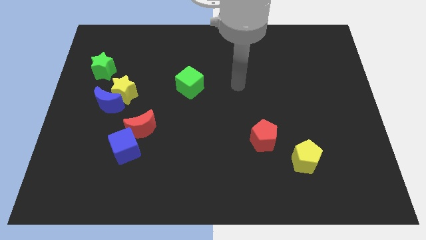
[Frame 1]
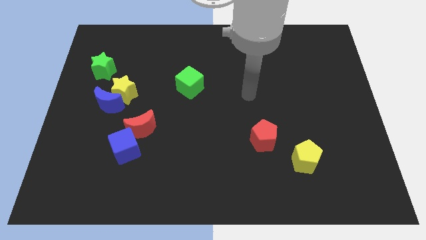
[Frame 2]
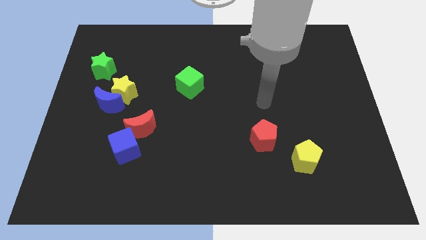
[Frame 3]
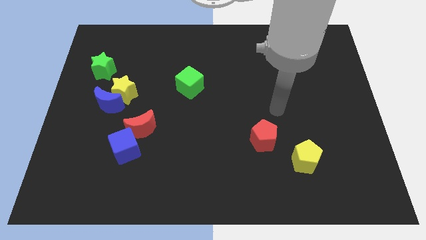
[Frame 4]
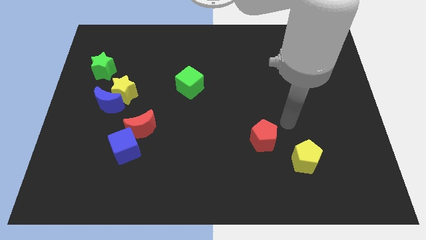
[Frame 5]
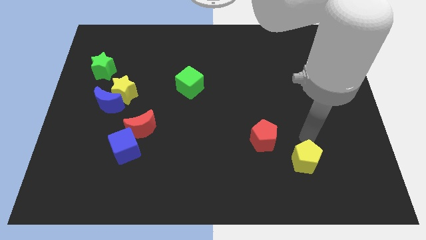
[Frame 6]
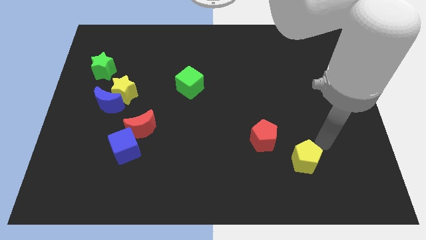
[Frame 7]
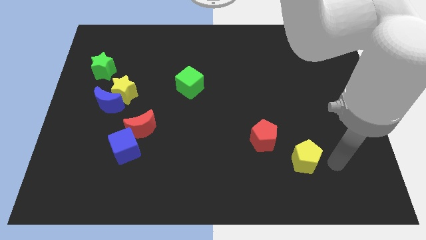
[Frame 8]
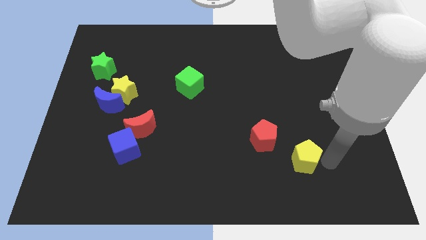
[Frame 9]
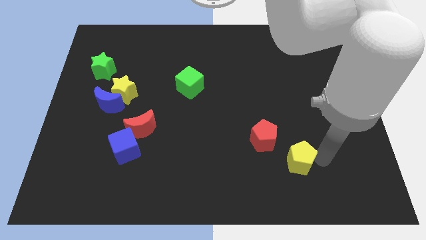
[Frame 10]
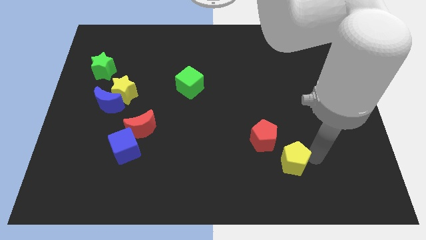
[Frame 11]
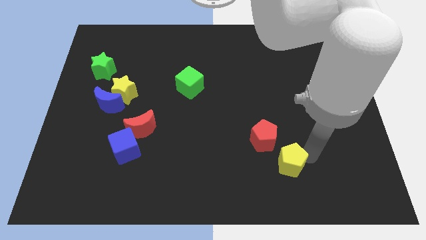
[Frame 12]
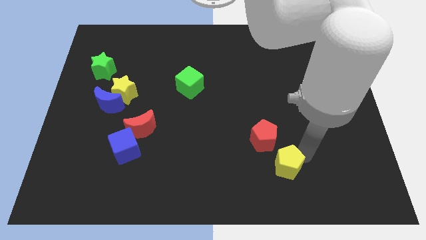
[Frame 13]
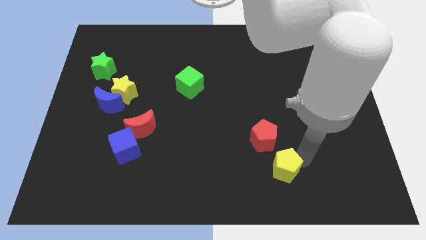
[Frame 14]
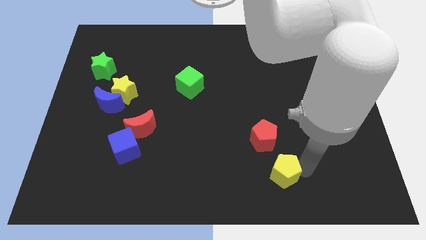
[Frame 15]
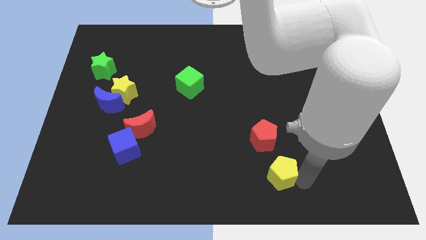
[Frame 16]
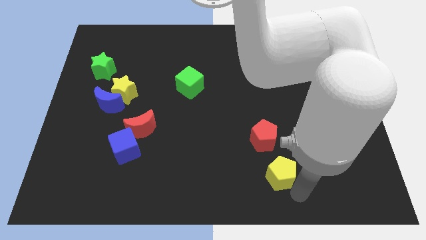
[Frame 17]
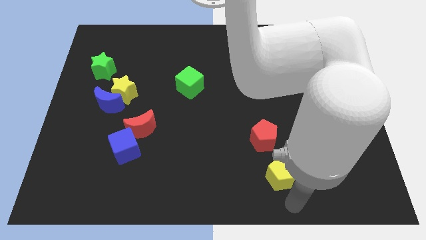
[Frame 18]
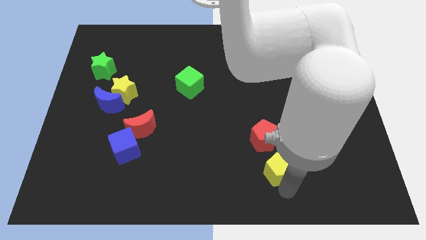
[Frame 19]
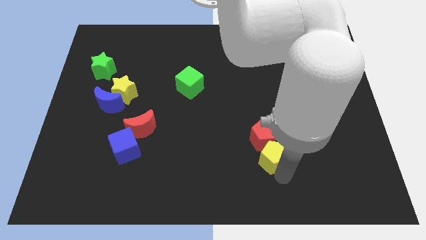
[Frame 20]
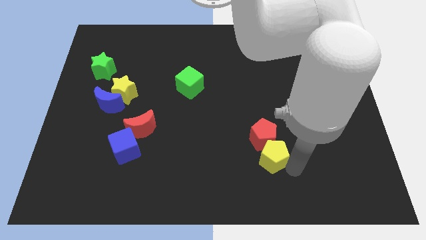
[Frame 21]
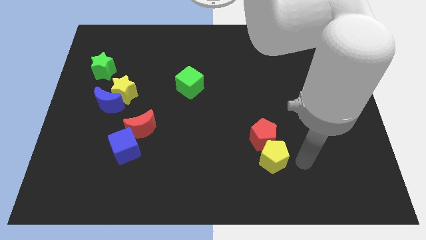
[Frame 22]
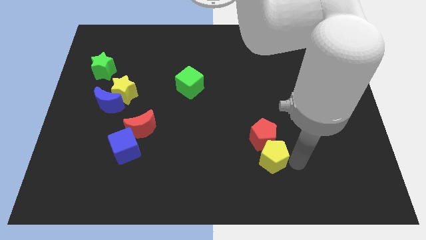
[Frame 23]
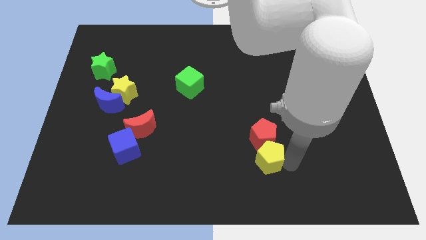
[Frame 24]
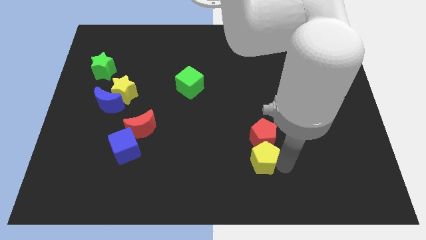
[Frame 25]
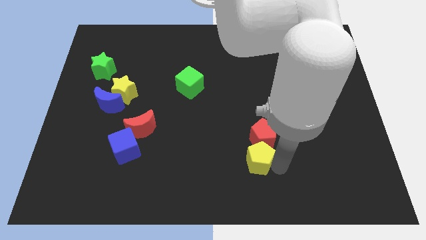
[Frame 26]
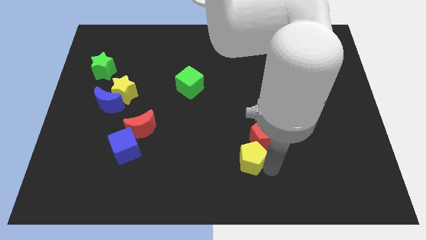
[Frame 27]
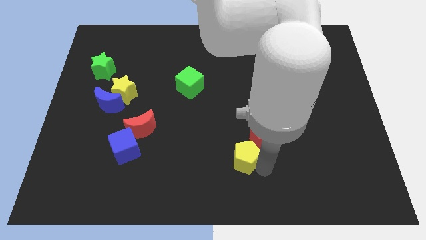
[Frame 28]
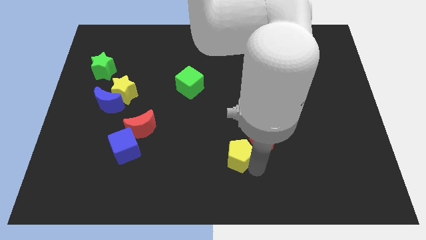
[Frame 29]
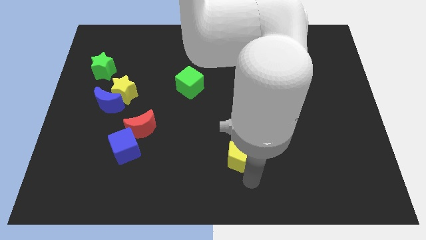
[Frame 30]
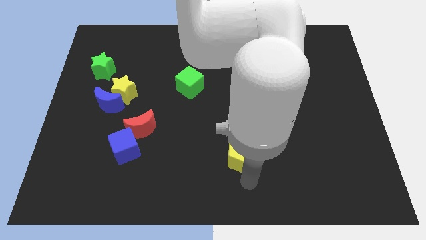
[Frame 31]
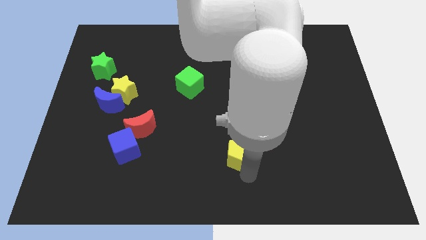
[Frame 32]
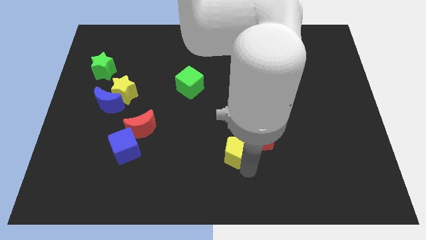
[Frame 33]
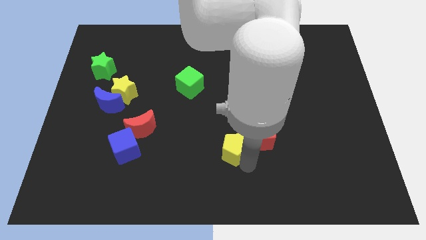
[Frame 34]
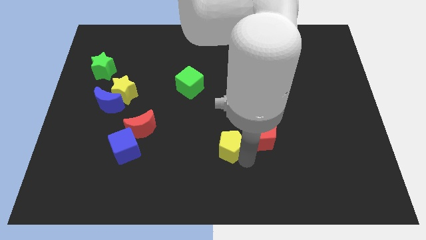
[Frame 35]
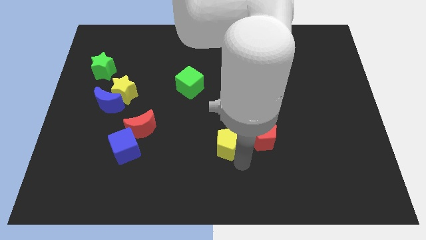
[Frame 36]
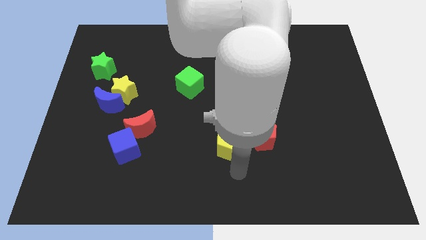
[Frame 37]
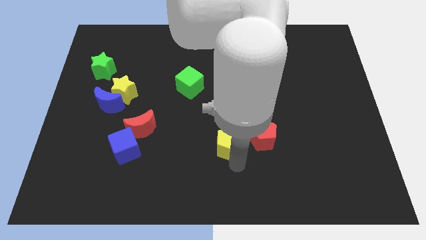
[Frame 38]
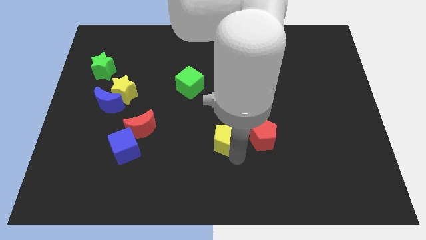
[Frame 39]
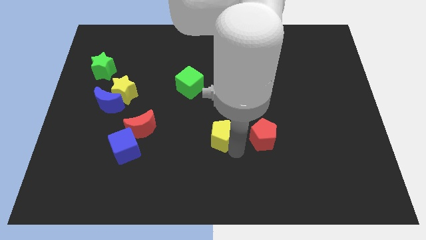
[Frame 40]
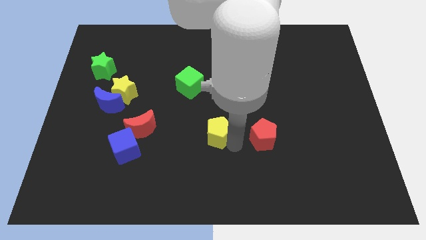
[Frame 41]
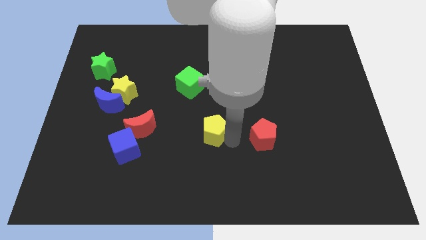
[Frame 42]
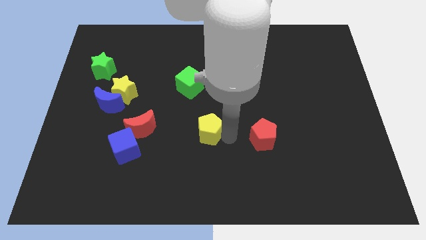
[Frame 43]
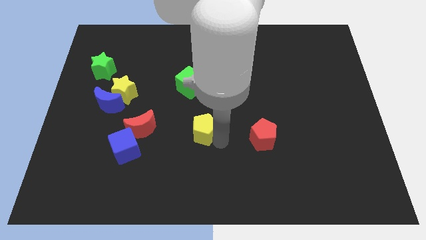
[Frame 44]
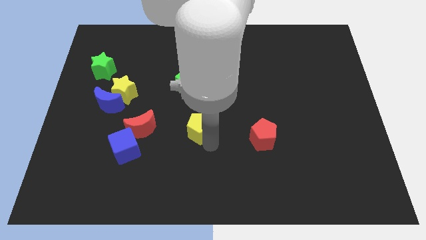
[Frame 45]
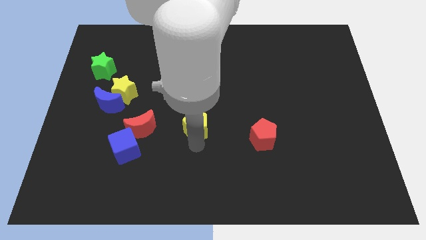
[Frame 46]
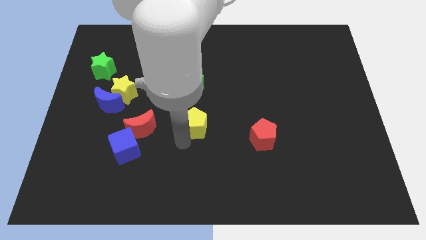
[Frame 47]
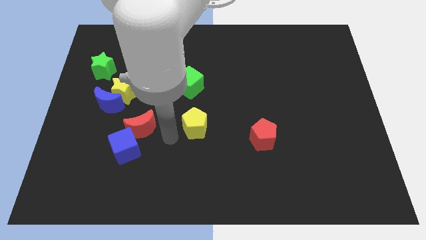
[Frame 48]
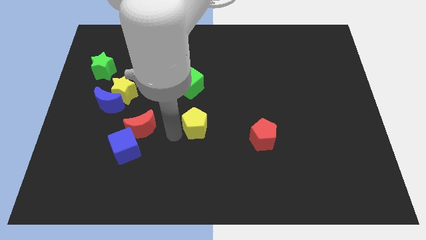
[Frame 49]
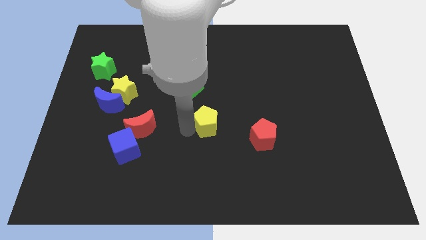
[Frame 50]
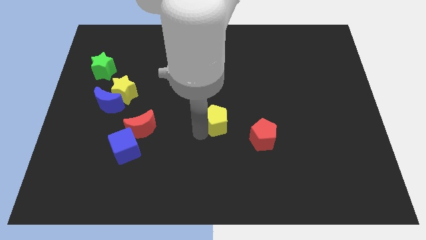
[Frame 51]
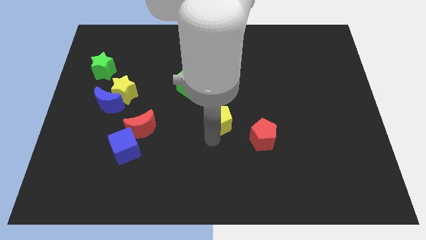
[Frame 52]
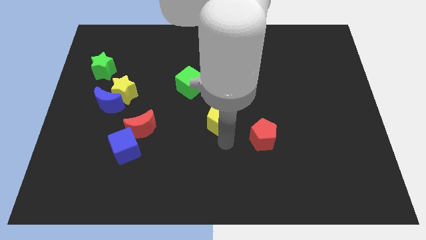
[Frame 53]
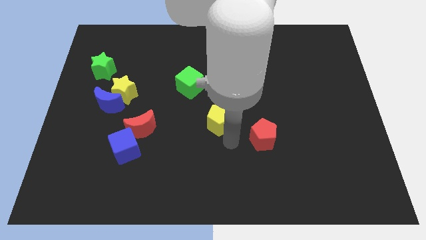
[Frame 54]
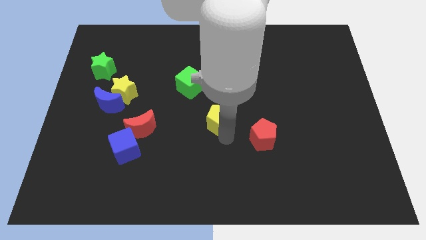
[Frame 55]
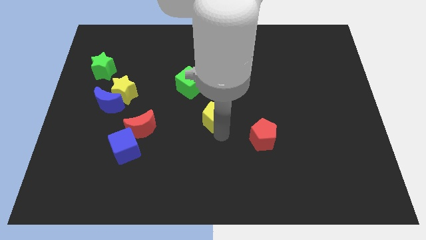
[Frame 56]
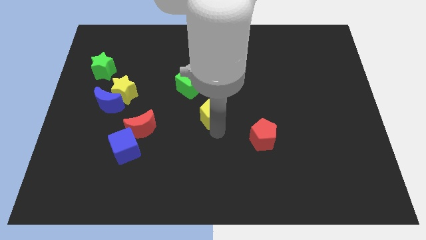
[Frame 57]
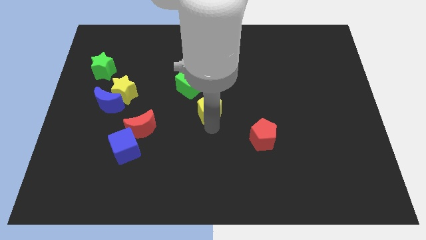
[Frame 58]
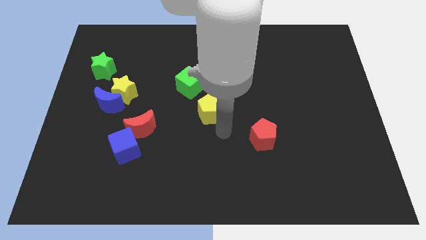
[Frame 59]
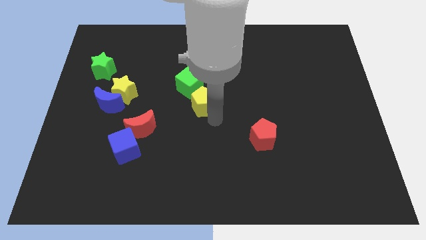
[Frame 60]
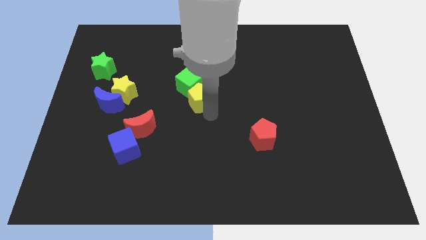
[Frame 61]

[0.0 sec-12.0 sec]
put the yellow pentagon close to the green cube

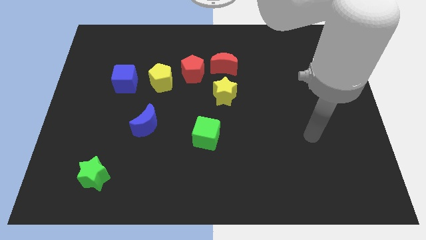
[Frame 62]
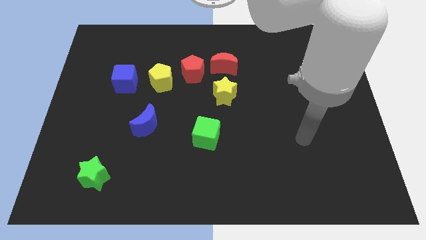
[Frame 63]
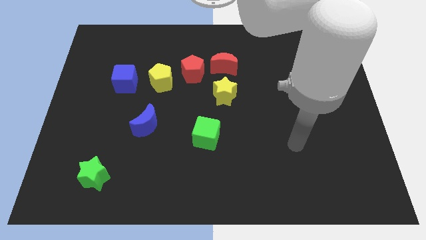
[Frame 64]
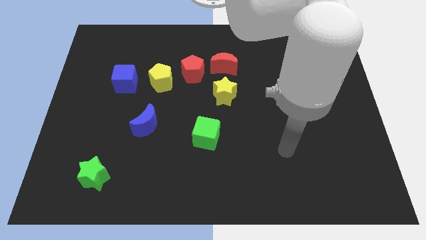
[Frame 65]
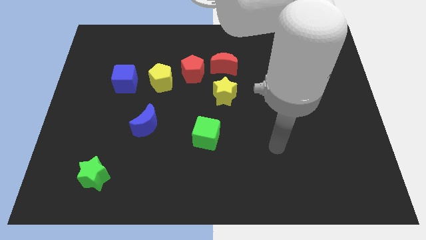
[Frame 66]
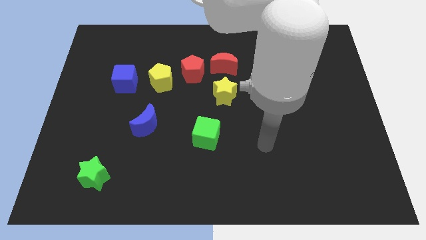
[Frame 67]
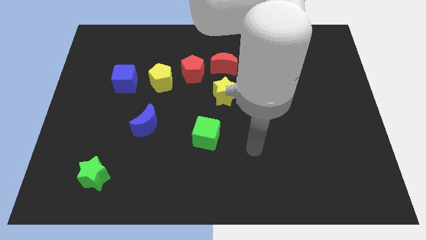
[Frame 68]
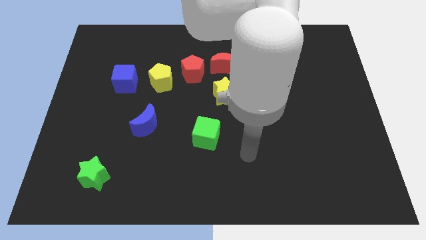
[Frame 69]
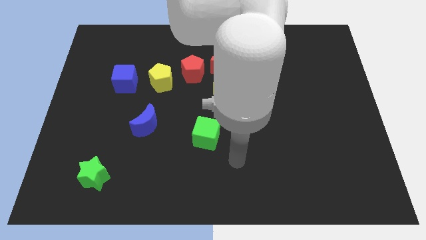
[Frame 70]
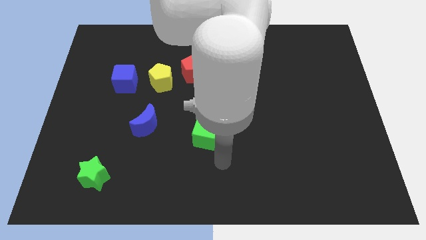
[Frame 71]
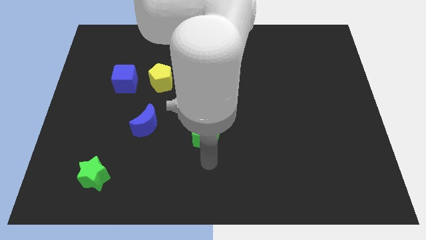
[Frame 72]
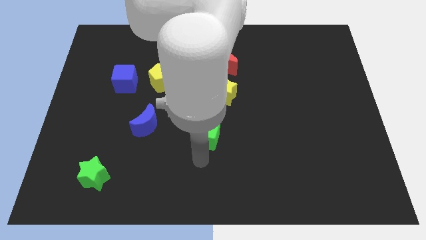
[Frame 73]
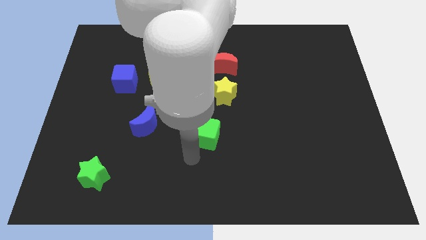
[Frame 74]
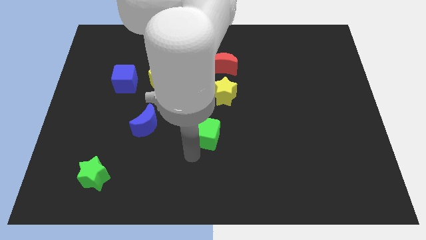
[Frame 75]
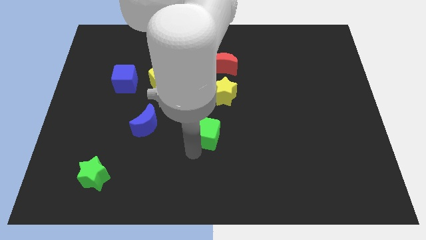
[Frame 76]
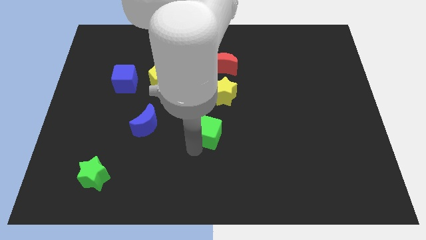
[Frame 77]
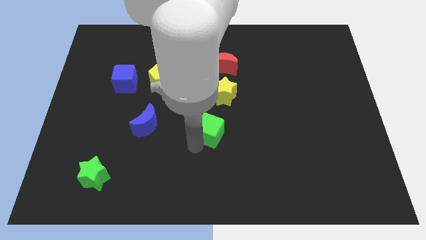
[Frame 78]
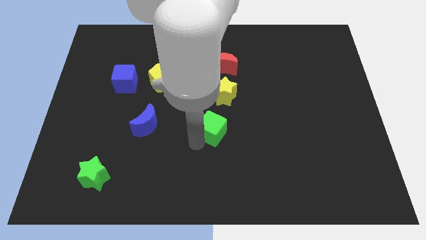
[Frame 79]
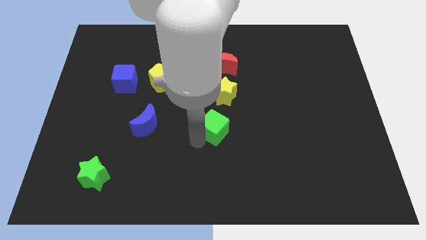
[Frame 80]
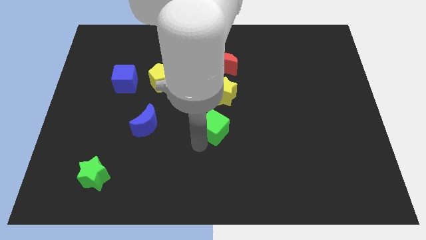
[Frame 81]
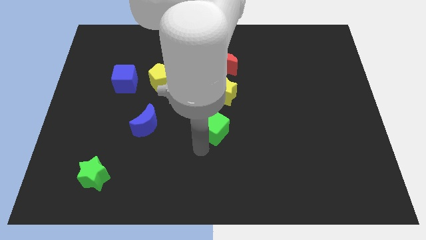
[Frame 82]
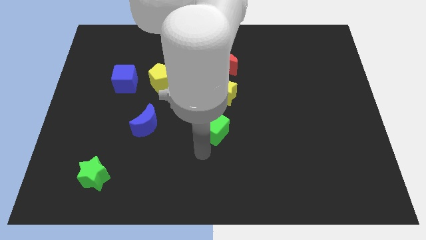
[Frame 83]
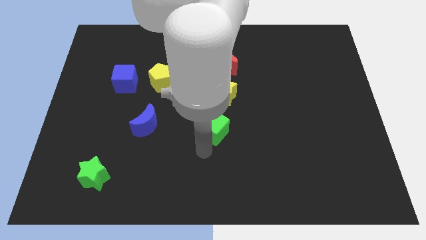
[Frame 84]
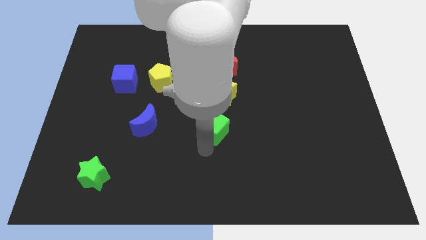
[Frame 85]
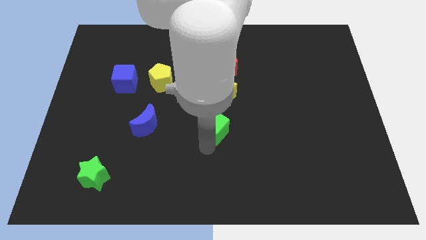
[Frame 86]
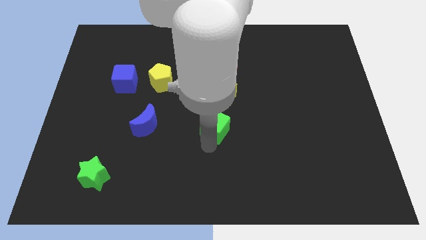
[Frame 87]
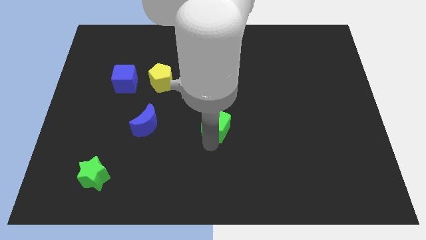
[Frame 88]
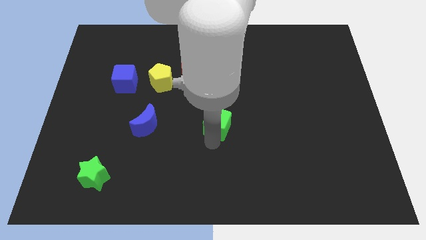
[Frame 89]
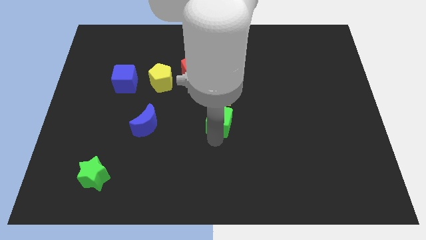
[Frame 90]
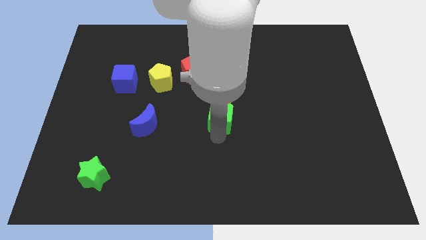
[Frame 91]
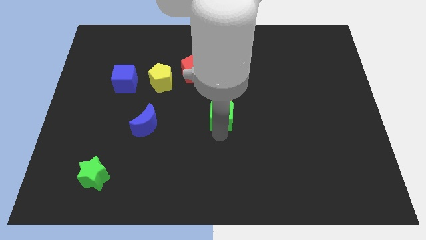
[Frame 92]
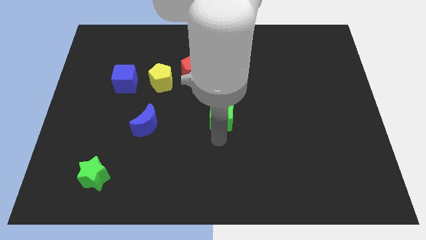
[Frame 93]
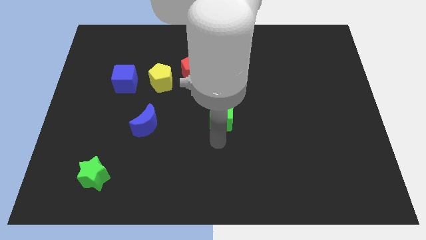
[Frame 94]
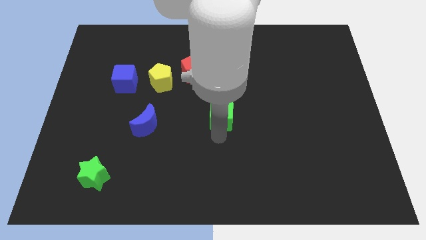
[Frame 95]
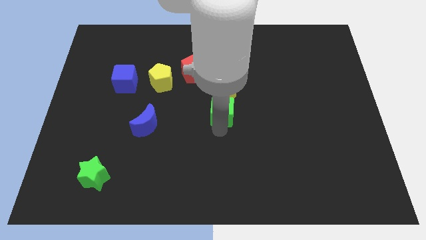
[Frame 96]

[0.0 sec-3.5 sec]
slide the green cube to the yellow star
